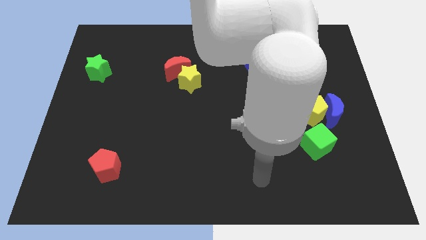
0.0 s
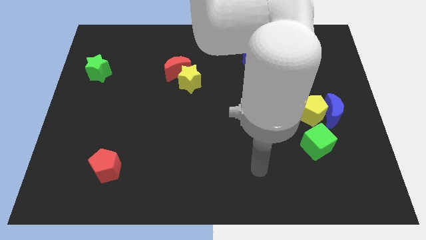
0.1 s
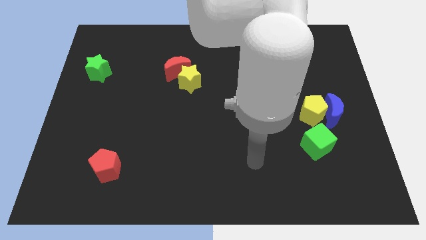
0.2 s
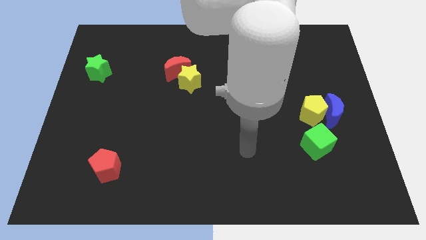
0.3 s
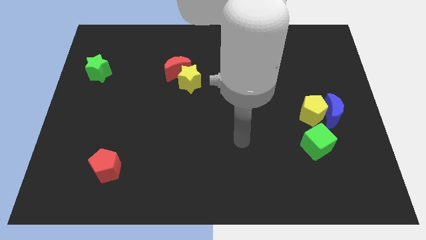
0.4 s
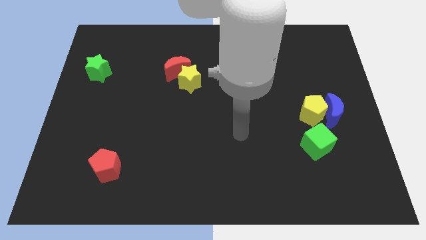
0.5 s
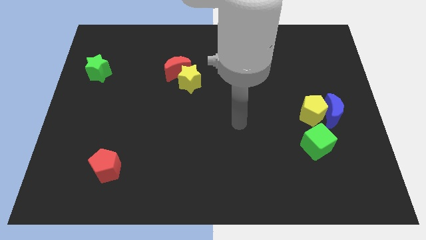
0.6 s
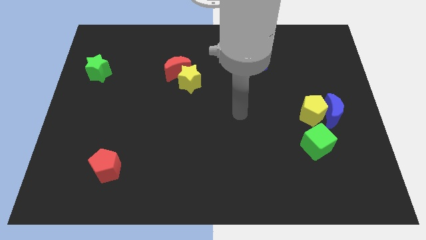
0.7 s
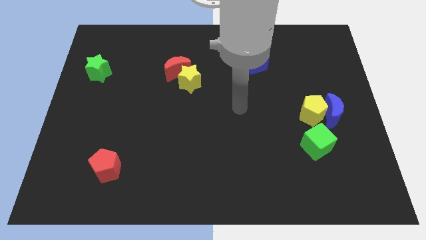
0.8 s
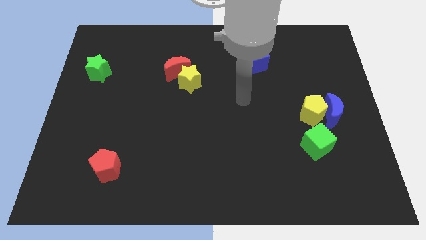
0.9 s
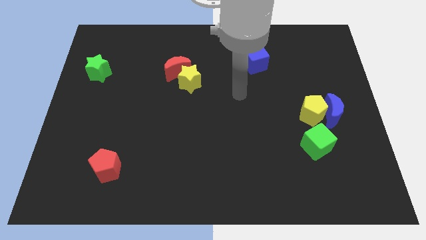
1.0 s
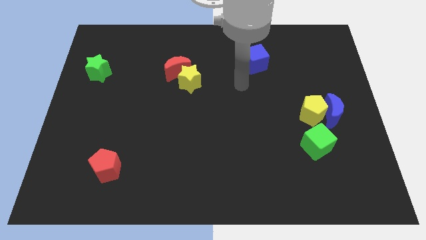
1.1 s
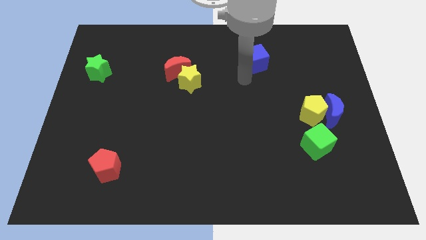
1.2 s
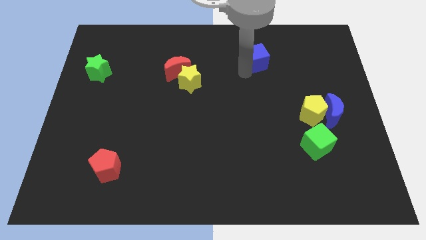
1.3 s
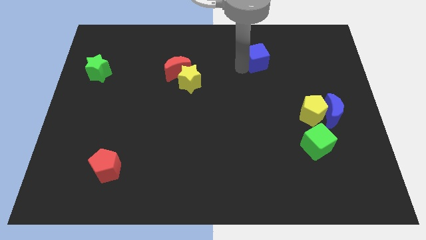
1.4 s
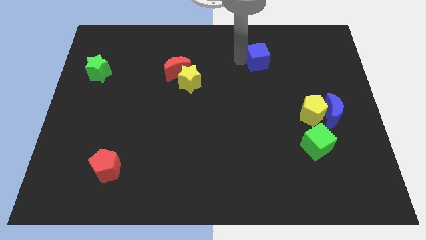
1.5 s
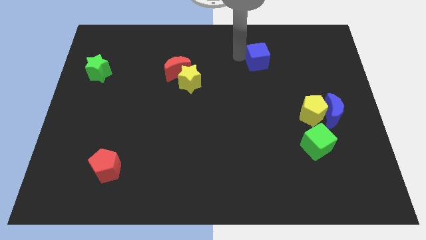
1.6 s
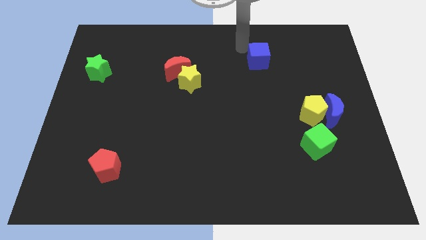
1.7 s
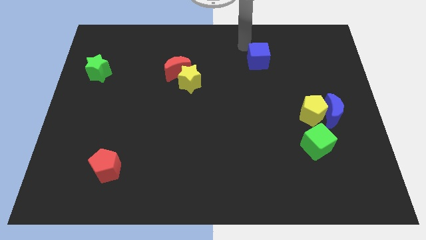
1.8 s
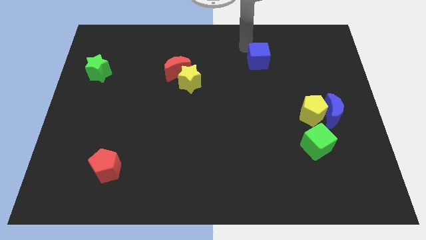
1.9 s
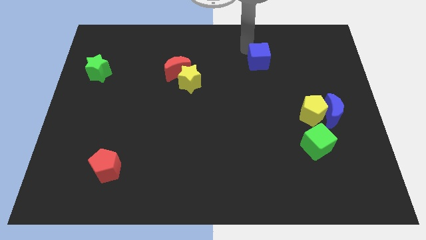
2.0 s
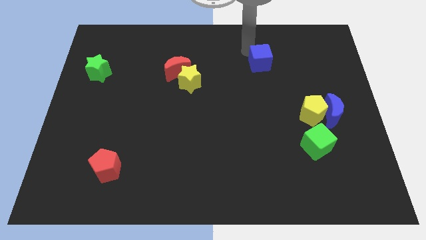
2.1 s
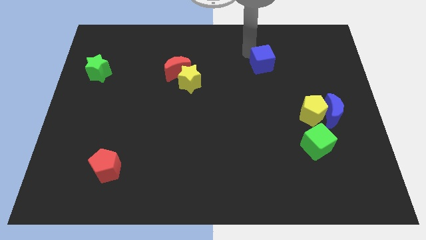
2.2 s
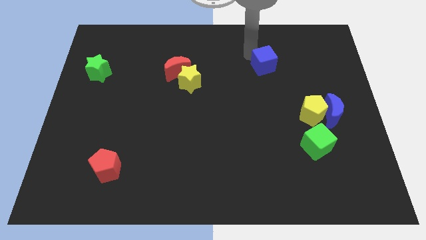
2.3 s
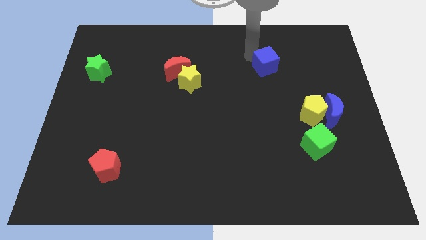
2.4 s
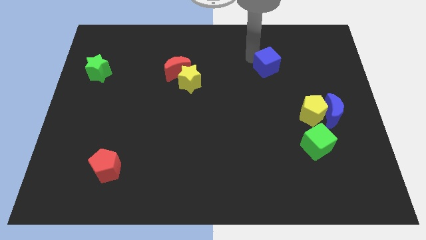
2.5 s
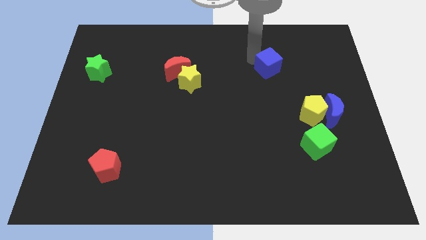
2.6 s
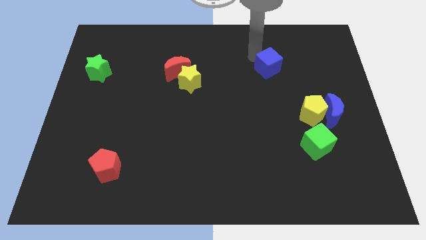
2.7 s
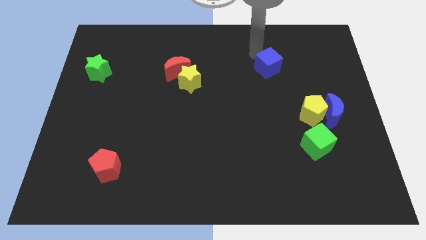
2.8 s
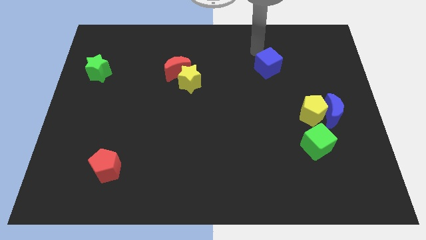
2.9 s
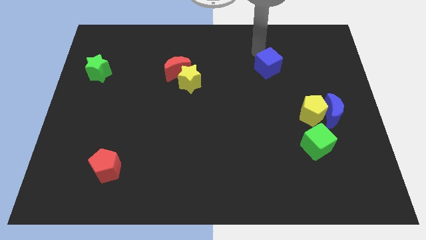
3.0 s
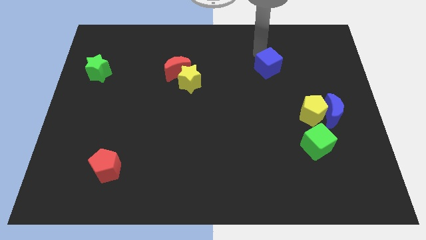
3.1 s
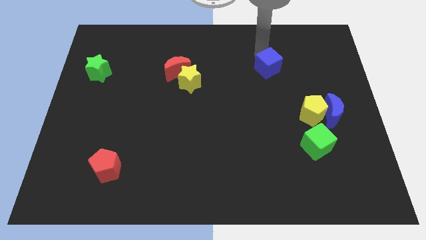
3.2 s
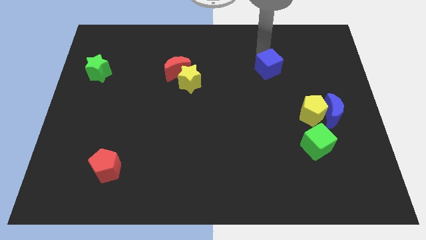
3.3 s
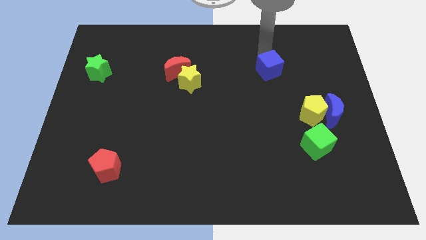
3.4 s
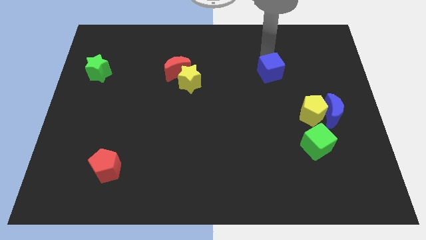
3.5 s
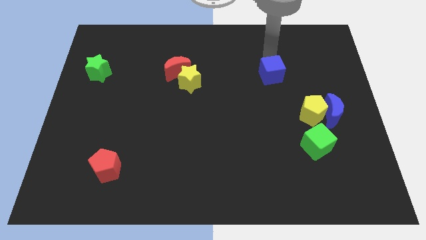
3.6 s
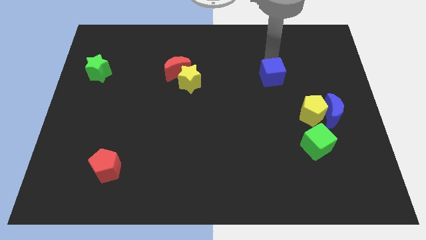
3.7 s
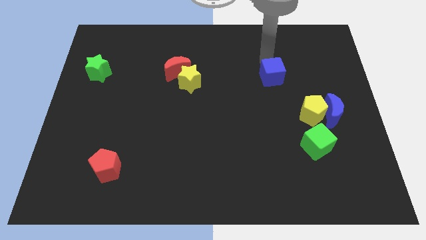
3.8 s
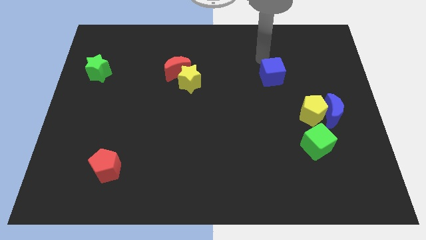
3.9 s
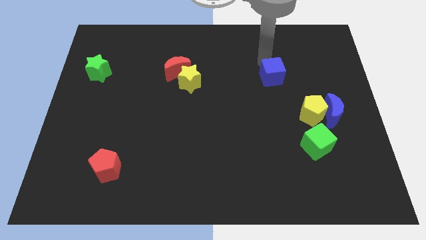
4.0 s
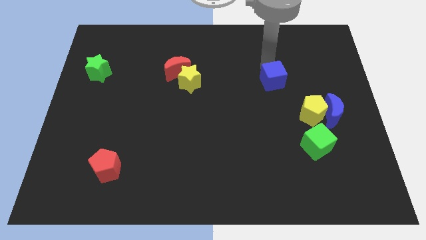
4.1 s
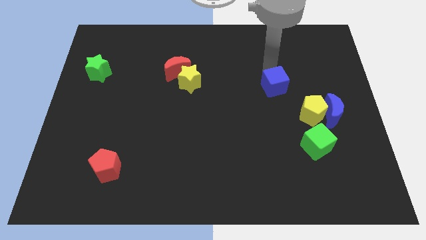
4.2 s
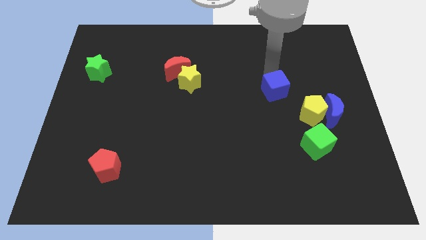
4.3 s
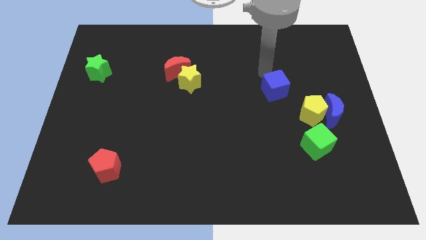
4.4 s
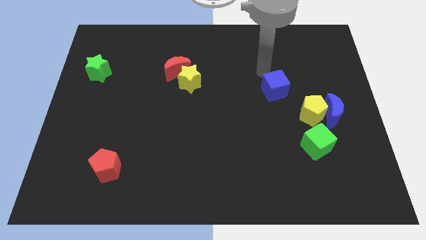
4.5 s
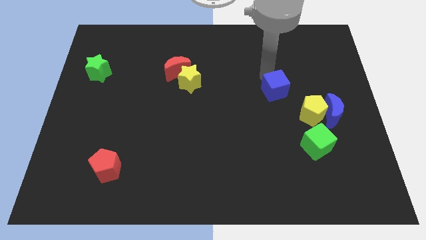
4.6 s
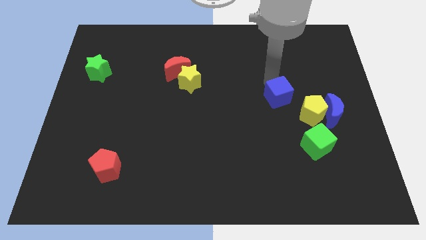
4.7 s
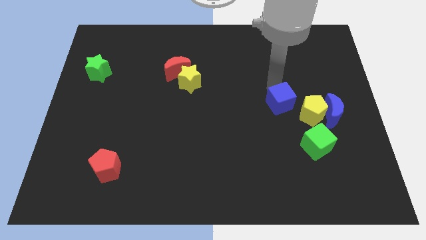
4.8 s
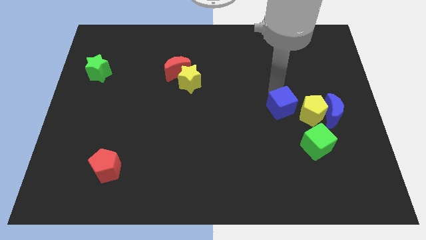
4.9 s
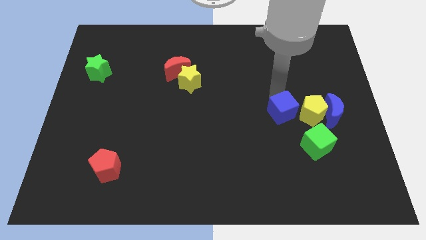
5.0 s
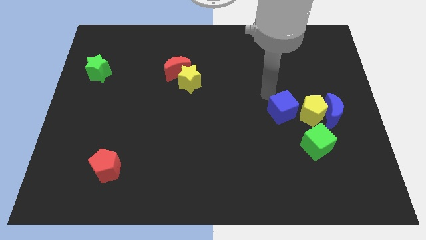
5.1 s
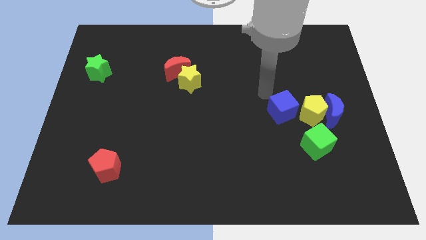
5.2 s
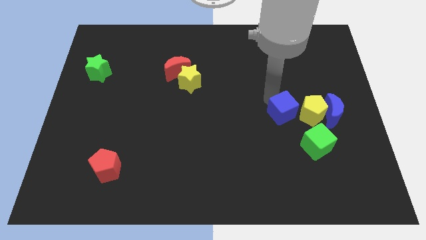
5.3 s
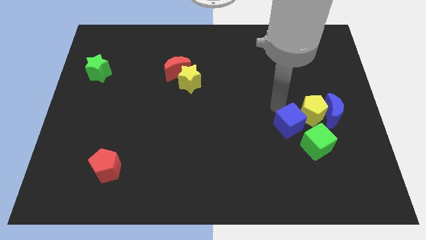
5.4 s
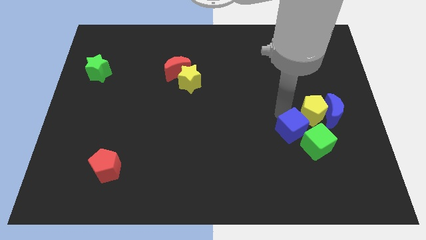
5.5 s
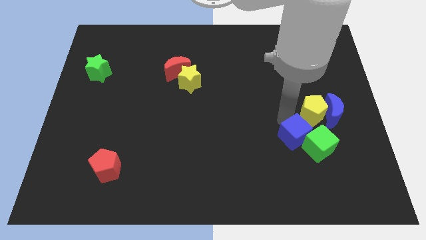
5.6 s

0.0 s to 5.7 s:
move the blue cube close to the green cube
